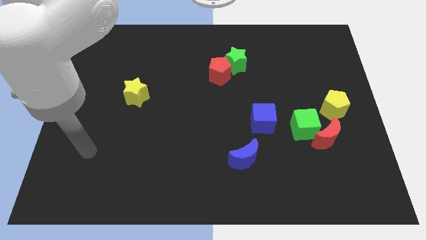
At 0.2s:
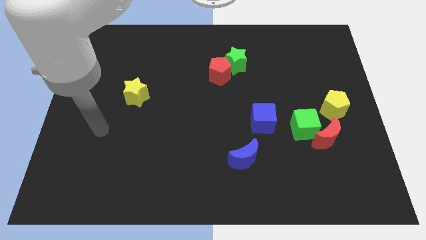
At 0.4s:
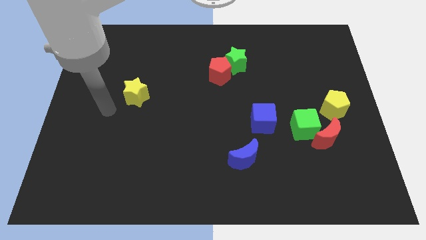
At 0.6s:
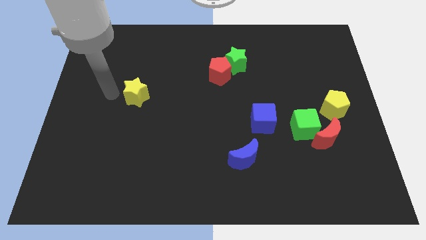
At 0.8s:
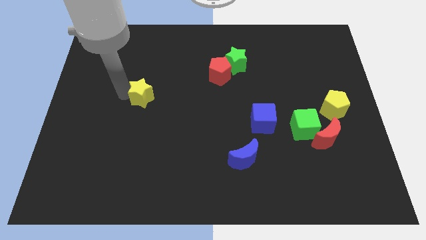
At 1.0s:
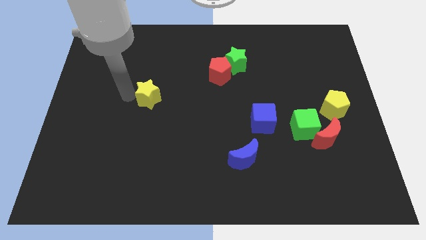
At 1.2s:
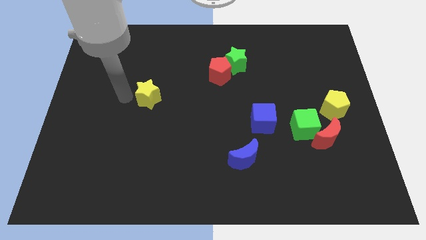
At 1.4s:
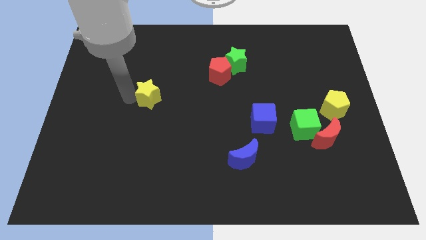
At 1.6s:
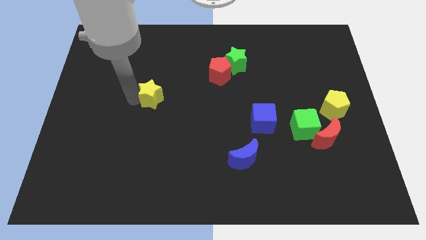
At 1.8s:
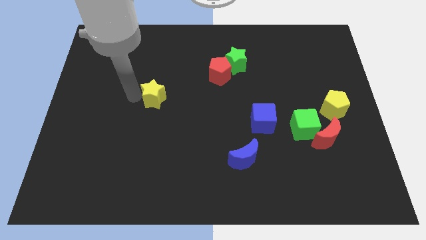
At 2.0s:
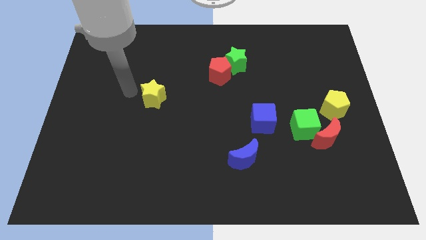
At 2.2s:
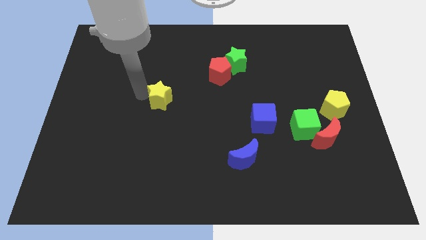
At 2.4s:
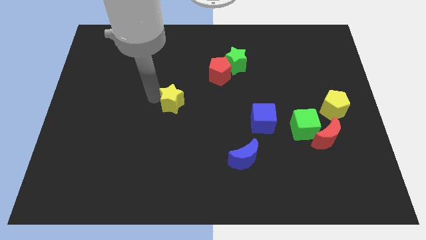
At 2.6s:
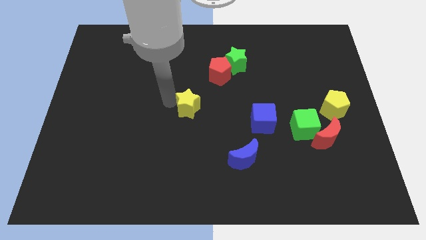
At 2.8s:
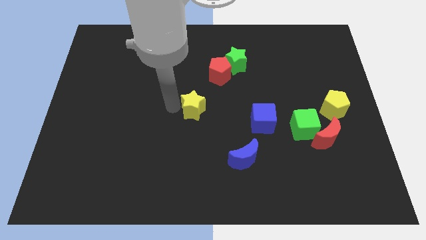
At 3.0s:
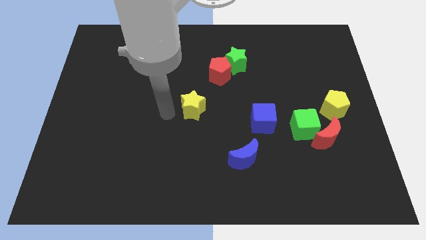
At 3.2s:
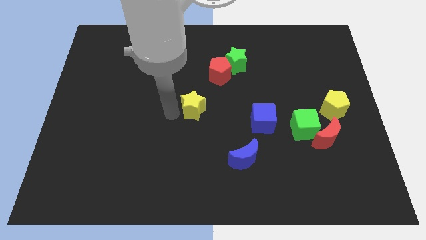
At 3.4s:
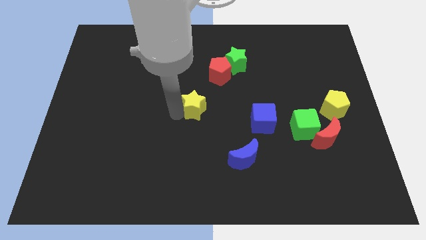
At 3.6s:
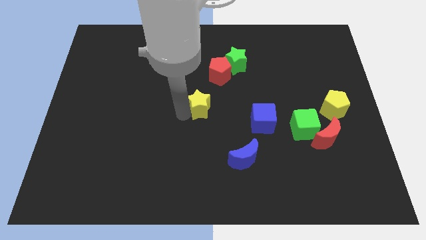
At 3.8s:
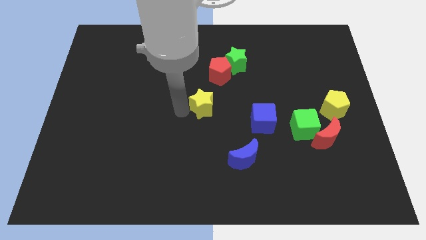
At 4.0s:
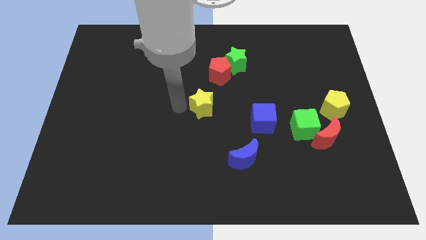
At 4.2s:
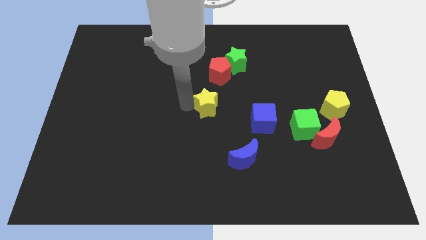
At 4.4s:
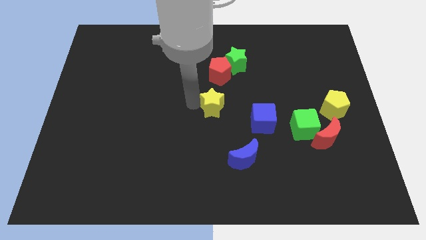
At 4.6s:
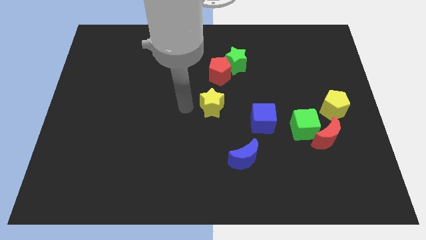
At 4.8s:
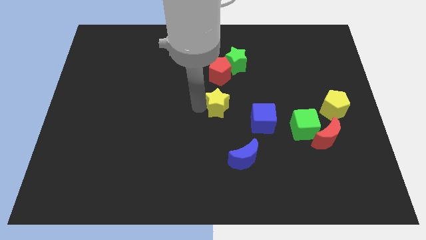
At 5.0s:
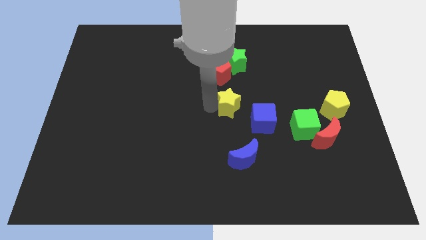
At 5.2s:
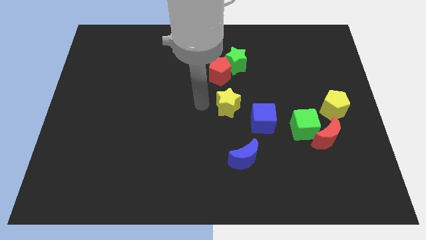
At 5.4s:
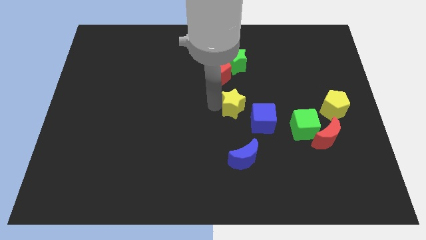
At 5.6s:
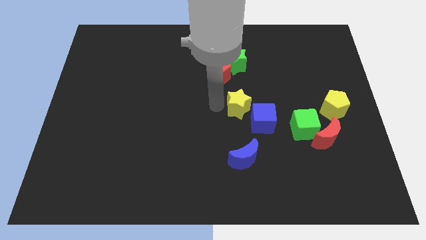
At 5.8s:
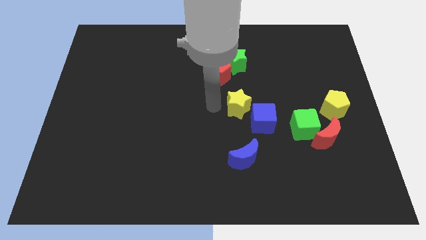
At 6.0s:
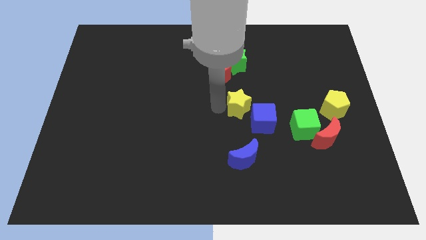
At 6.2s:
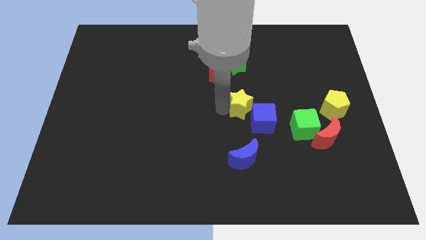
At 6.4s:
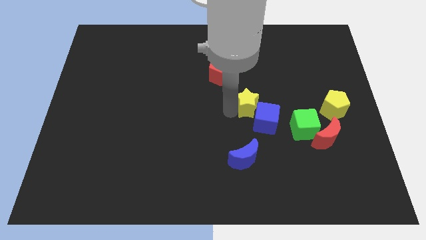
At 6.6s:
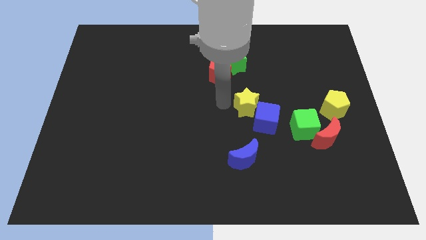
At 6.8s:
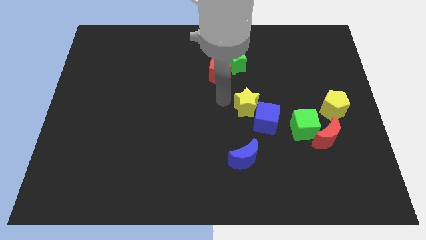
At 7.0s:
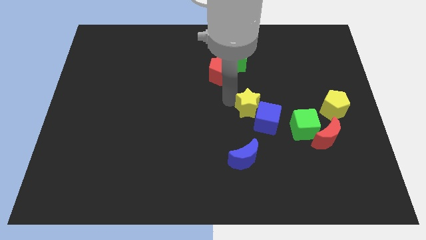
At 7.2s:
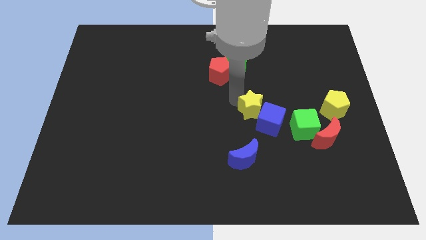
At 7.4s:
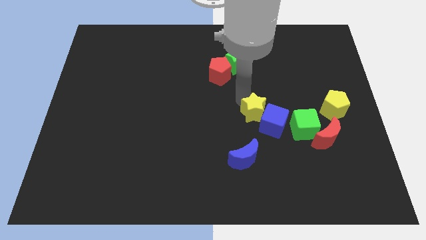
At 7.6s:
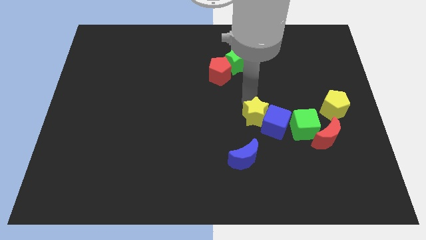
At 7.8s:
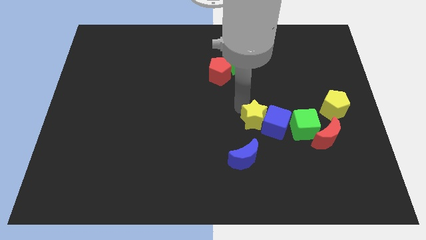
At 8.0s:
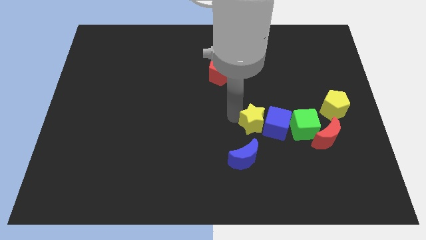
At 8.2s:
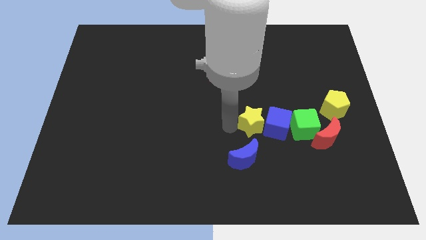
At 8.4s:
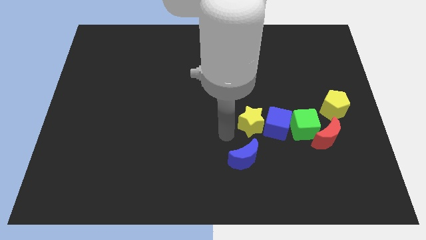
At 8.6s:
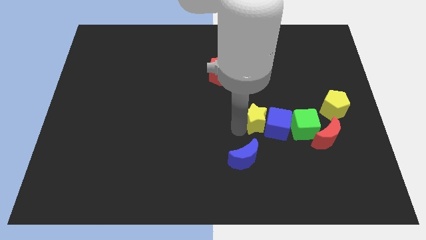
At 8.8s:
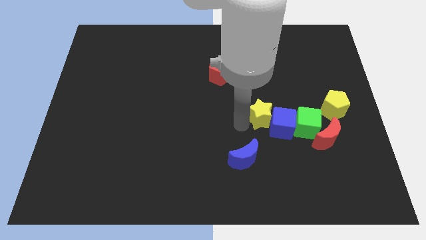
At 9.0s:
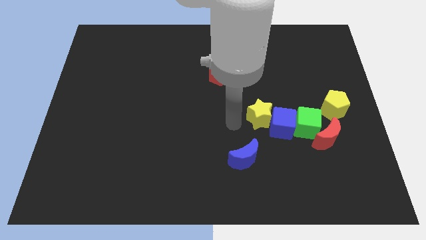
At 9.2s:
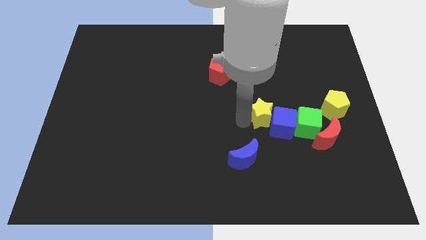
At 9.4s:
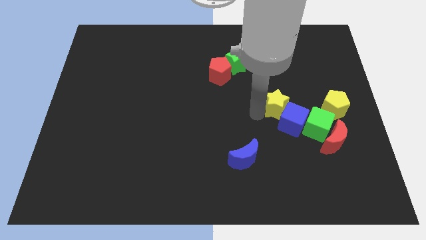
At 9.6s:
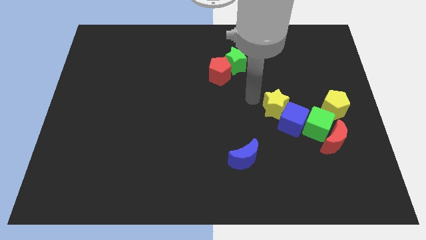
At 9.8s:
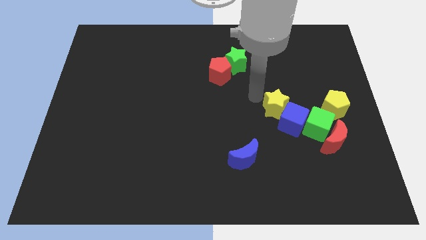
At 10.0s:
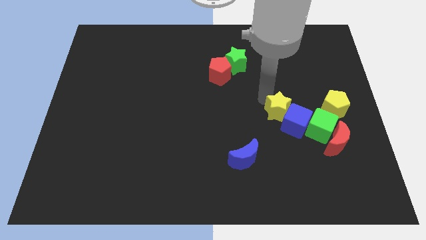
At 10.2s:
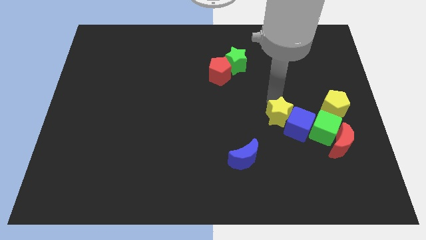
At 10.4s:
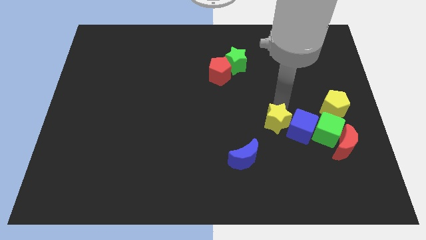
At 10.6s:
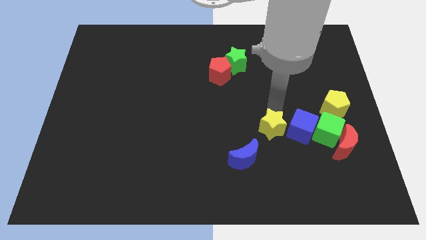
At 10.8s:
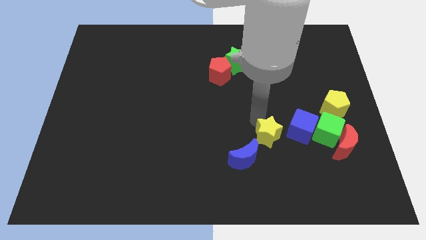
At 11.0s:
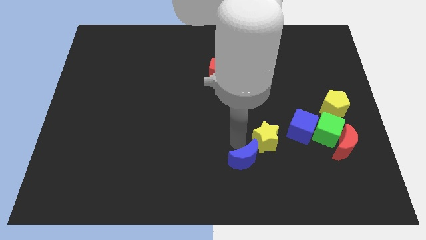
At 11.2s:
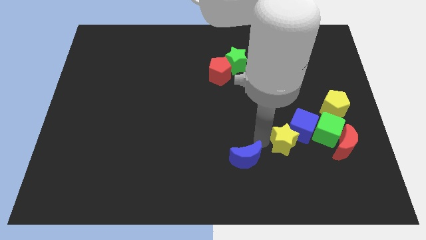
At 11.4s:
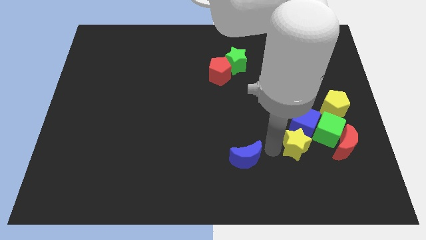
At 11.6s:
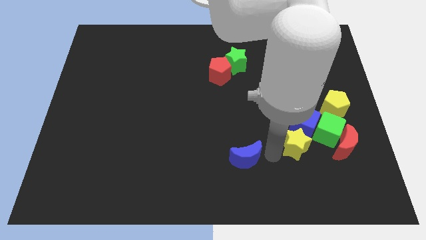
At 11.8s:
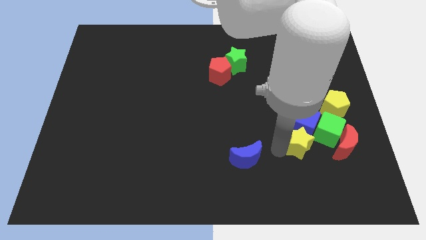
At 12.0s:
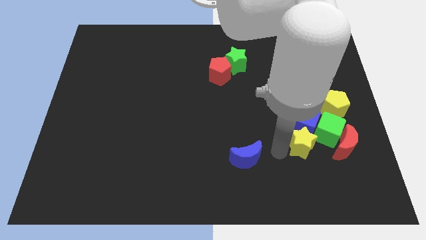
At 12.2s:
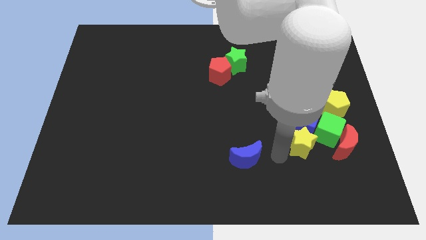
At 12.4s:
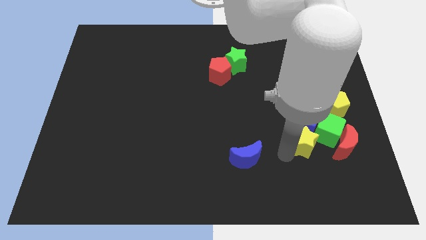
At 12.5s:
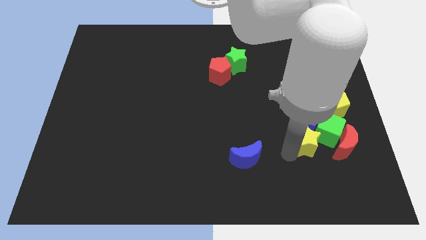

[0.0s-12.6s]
push the yellow star towards the green cube

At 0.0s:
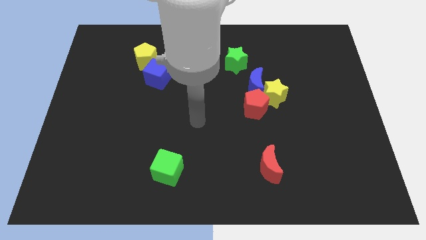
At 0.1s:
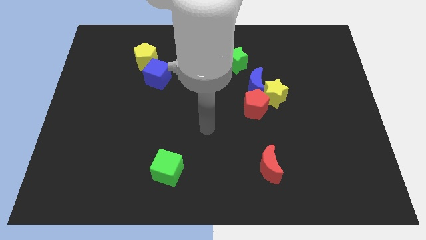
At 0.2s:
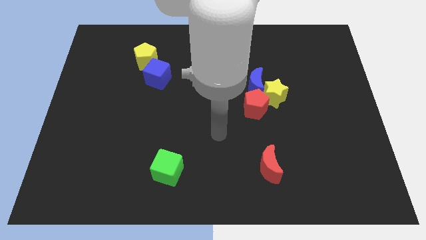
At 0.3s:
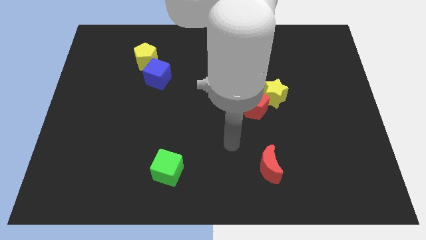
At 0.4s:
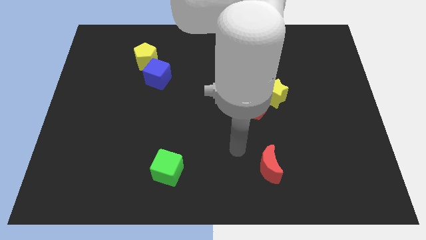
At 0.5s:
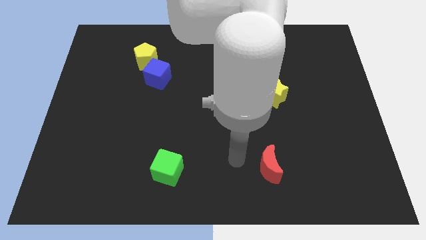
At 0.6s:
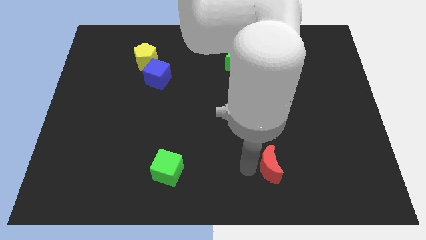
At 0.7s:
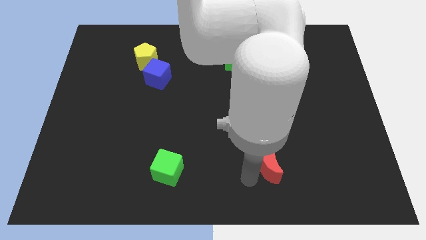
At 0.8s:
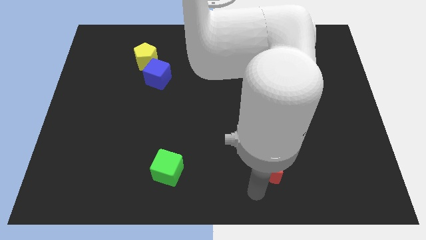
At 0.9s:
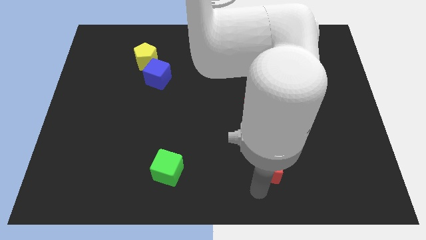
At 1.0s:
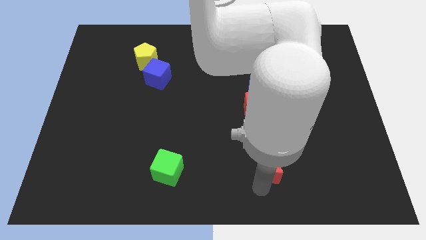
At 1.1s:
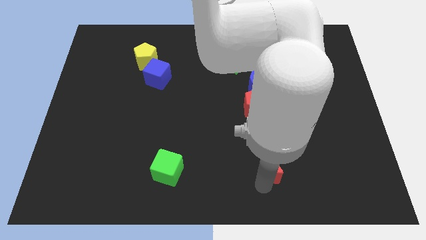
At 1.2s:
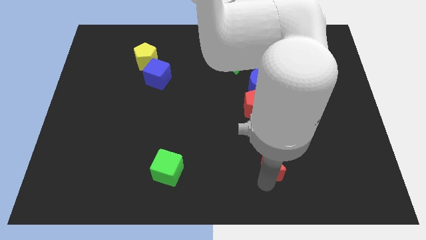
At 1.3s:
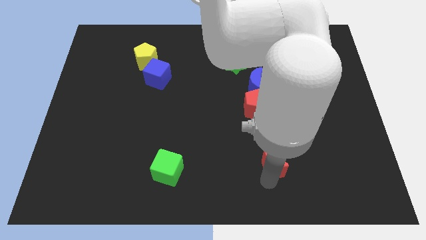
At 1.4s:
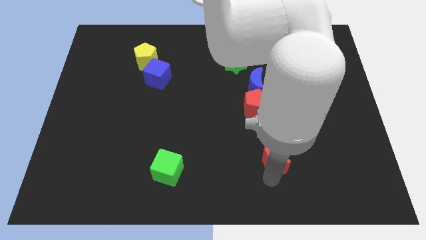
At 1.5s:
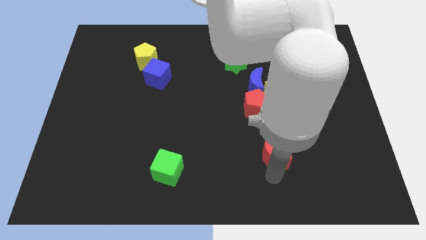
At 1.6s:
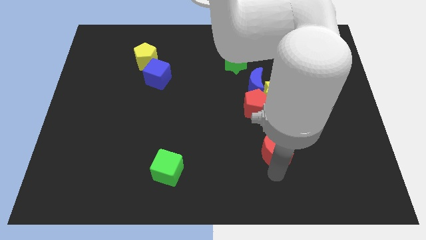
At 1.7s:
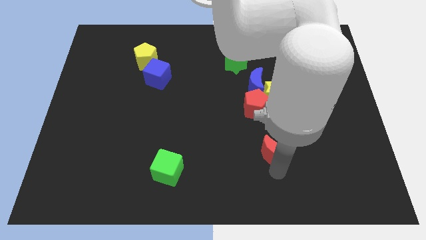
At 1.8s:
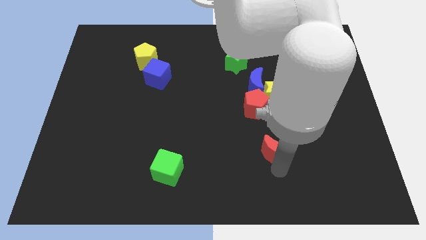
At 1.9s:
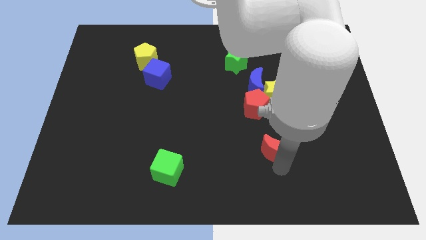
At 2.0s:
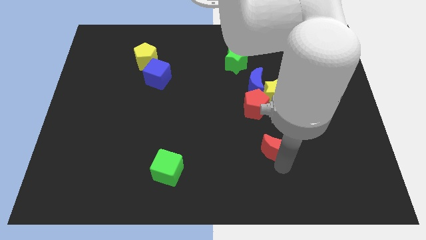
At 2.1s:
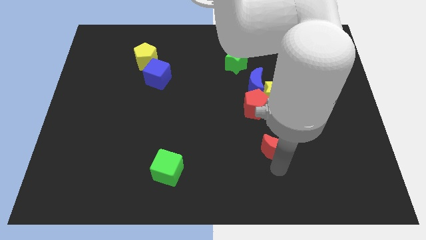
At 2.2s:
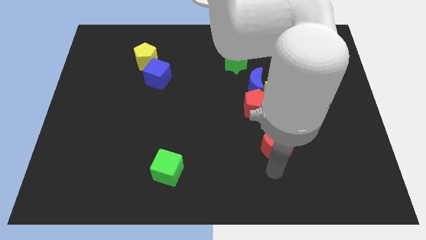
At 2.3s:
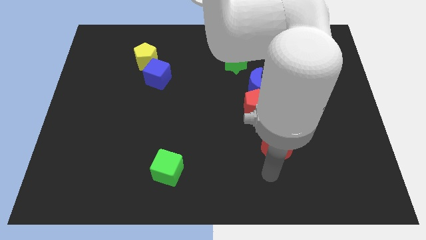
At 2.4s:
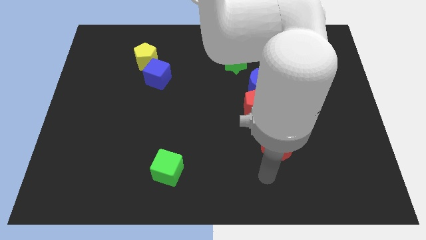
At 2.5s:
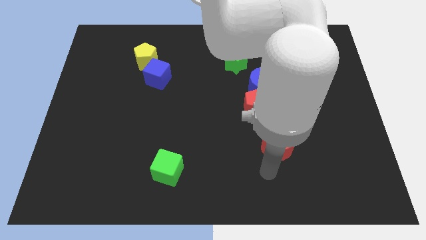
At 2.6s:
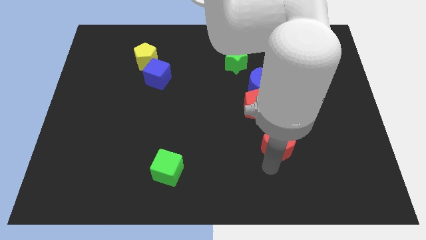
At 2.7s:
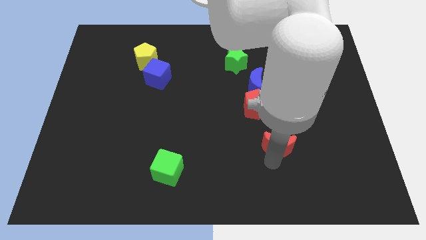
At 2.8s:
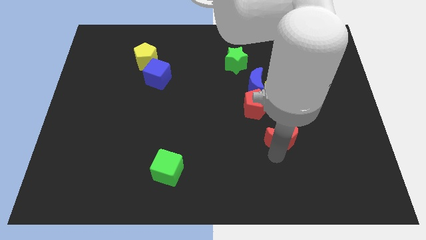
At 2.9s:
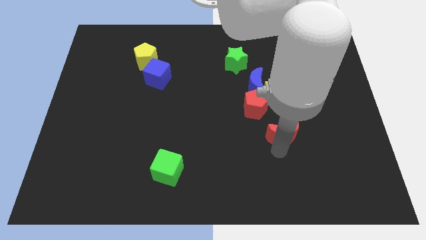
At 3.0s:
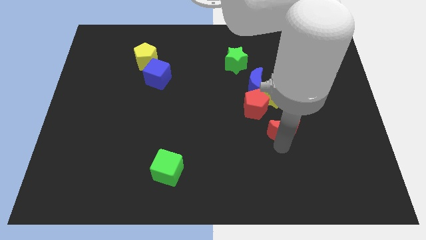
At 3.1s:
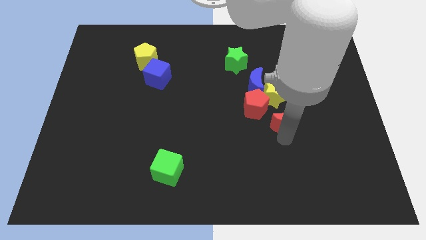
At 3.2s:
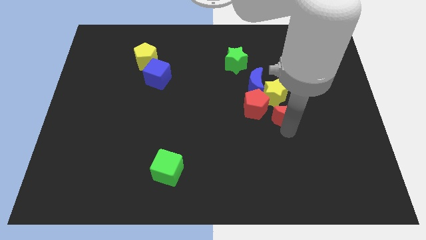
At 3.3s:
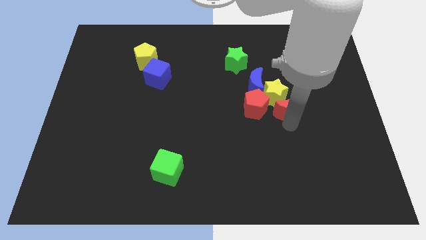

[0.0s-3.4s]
push the red moon to the yellow star
